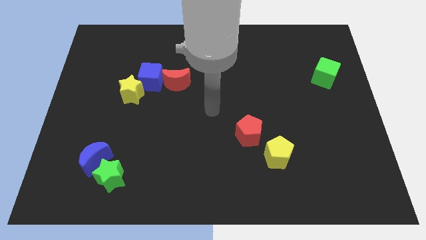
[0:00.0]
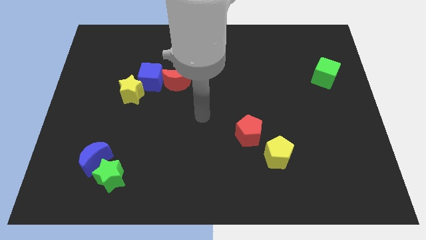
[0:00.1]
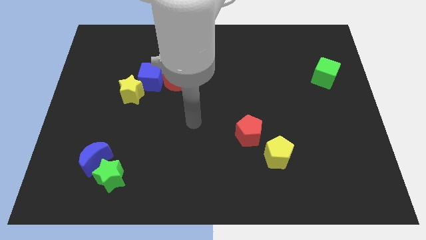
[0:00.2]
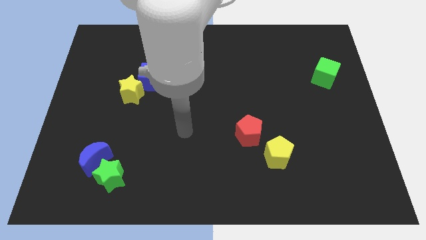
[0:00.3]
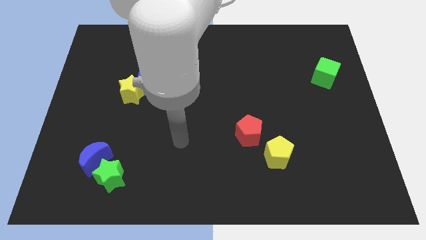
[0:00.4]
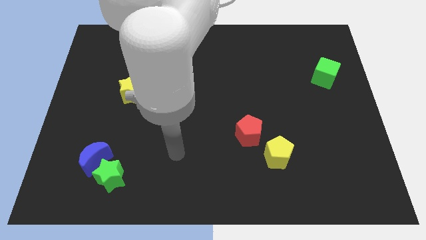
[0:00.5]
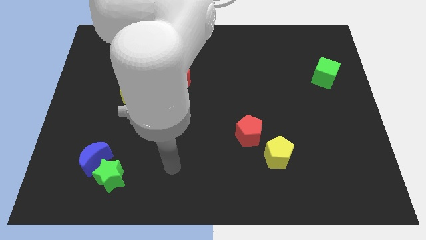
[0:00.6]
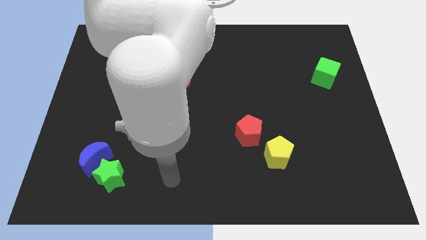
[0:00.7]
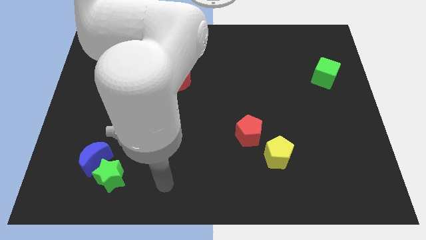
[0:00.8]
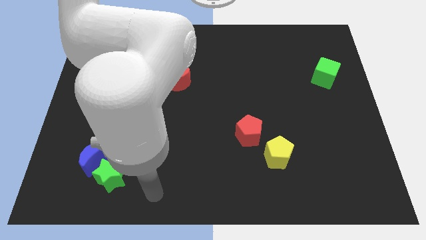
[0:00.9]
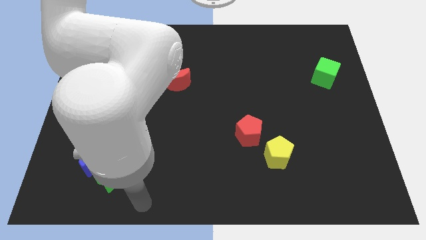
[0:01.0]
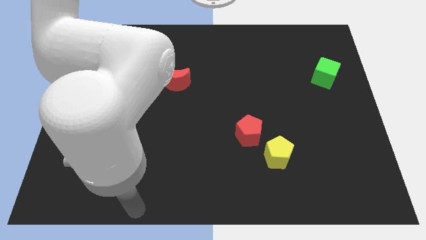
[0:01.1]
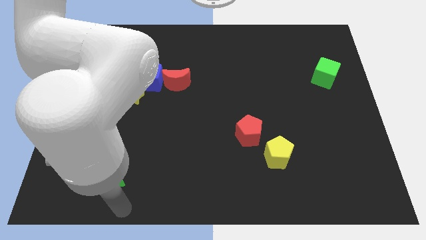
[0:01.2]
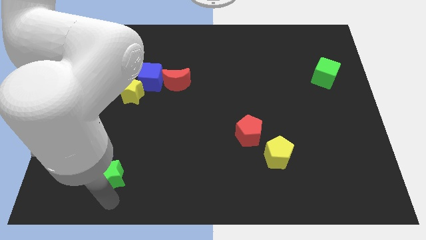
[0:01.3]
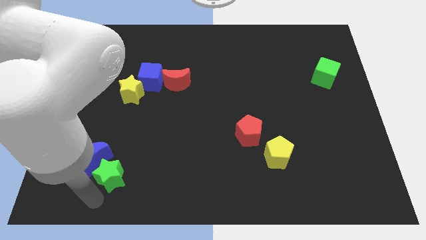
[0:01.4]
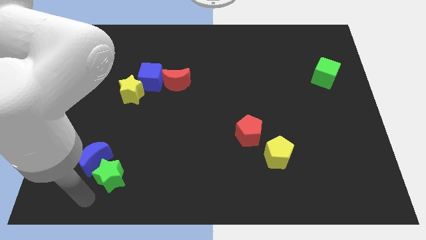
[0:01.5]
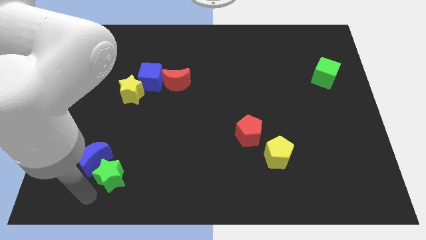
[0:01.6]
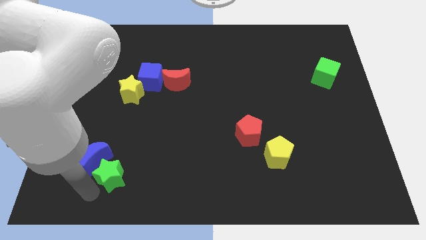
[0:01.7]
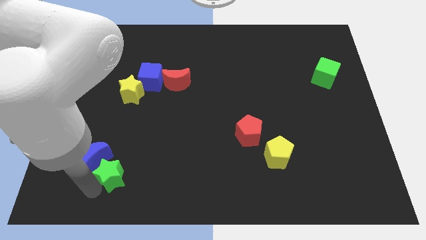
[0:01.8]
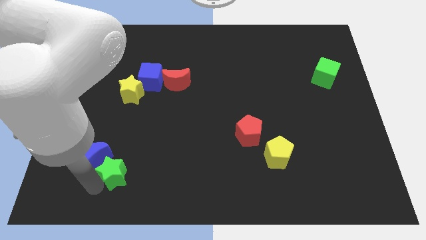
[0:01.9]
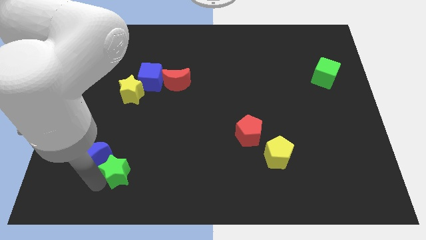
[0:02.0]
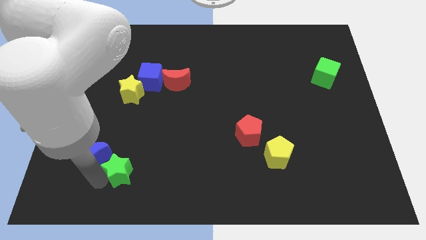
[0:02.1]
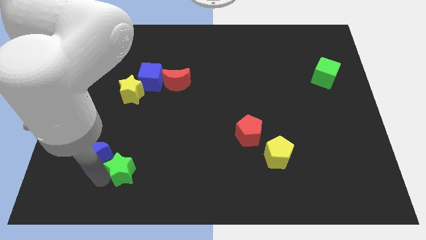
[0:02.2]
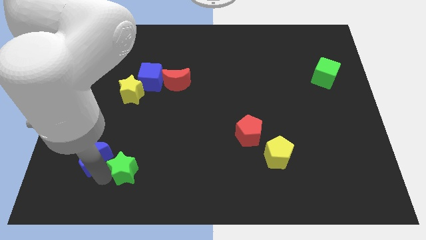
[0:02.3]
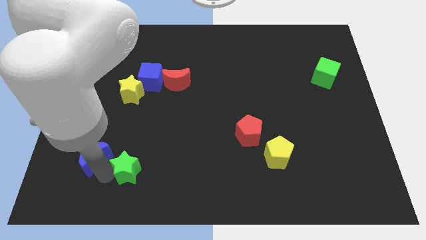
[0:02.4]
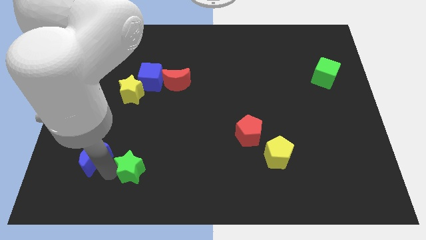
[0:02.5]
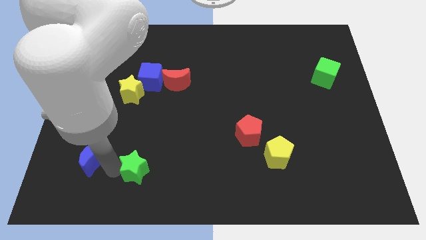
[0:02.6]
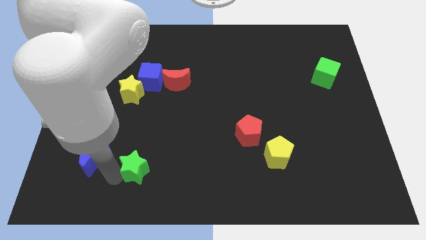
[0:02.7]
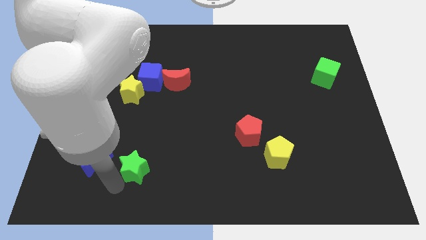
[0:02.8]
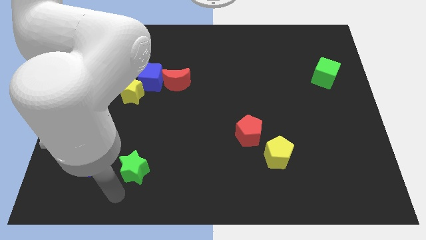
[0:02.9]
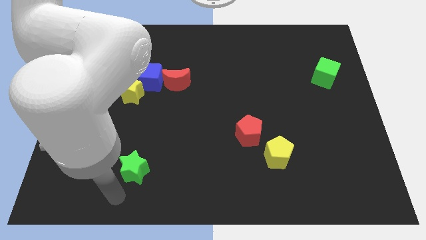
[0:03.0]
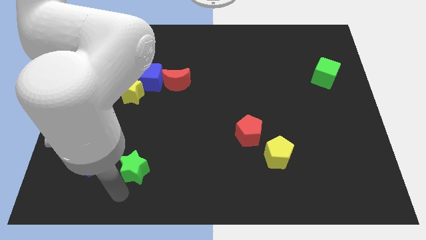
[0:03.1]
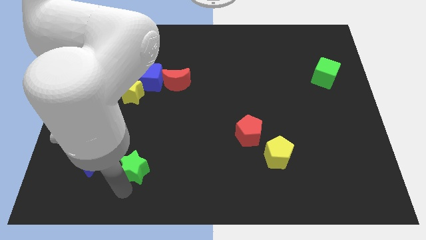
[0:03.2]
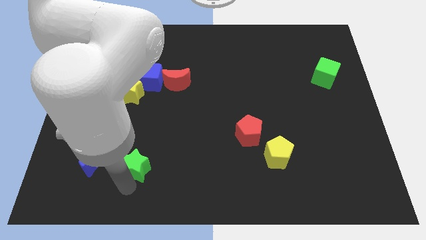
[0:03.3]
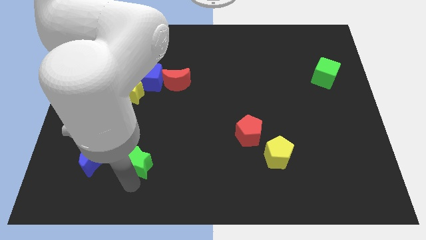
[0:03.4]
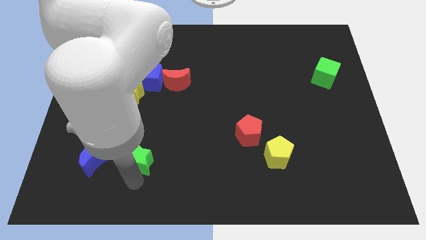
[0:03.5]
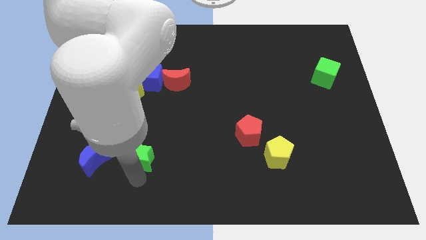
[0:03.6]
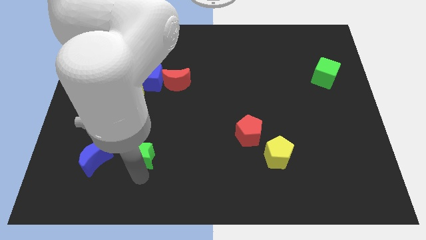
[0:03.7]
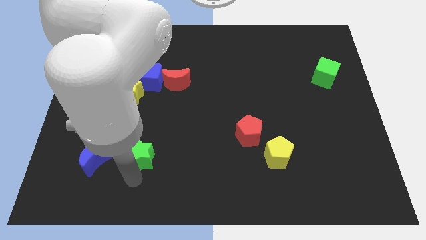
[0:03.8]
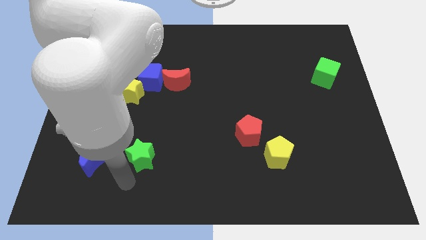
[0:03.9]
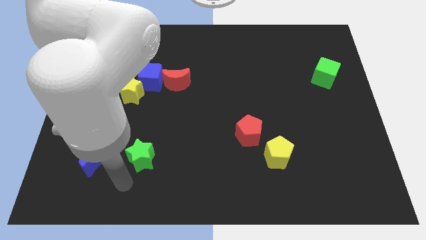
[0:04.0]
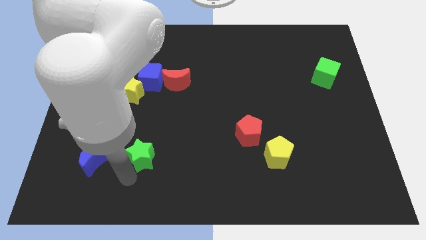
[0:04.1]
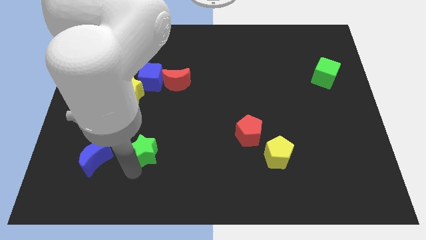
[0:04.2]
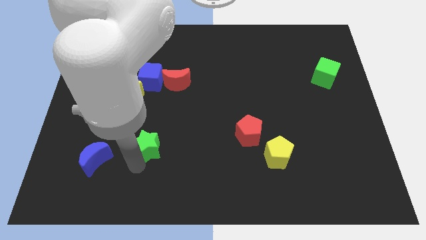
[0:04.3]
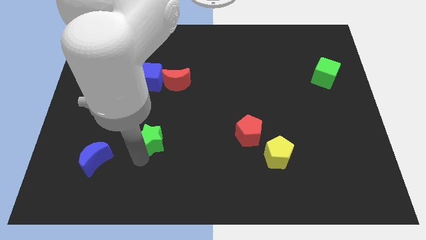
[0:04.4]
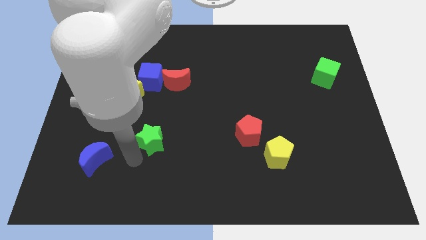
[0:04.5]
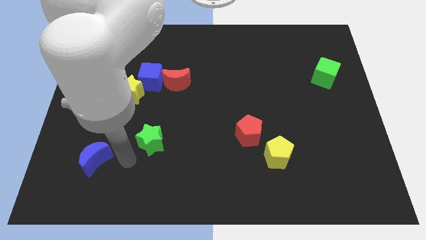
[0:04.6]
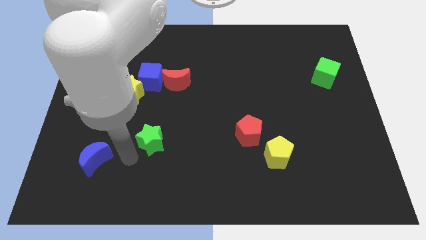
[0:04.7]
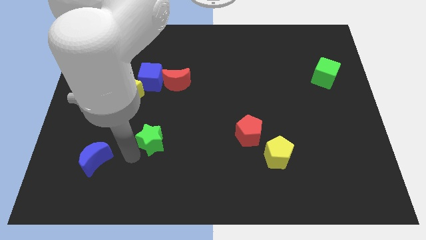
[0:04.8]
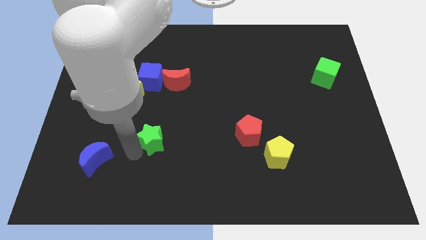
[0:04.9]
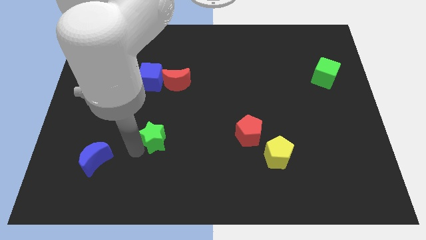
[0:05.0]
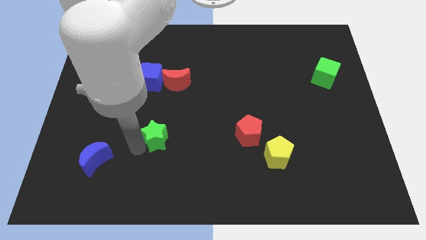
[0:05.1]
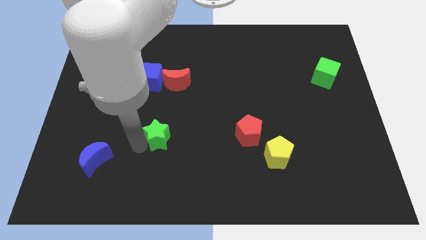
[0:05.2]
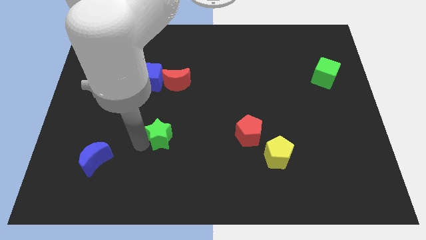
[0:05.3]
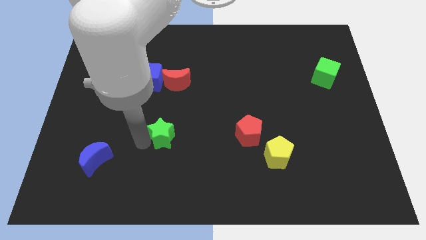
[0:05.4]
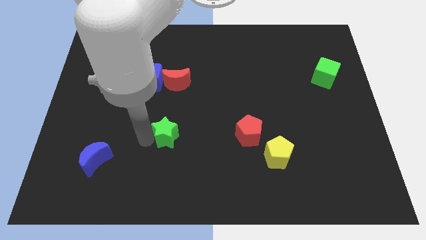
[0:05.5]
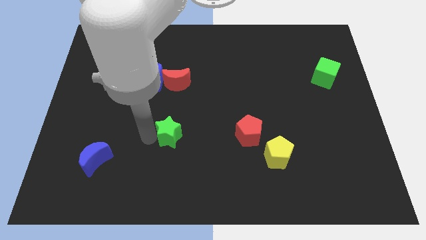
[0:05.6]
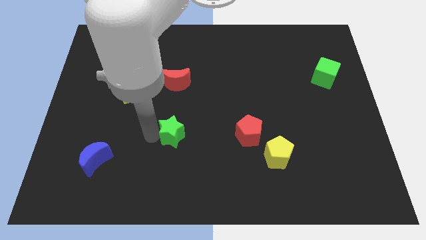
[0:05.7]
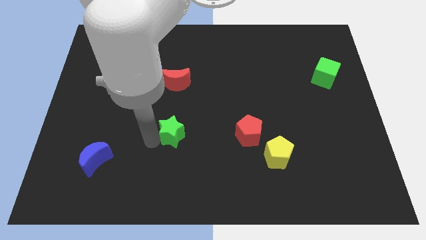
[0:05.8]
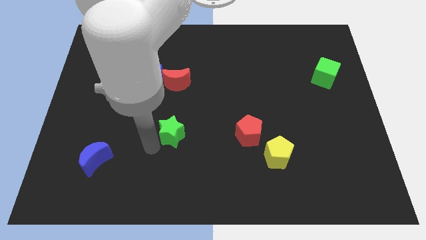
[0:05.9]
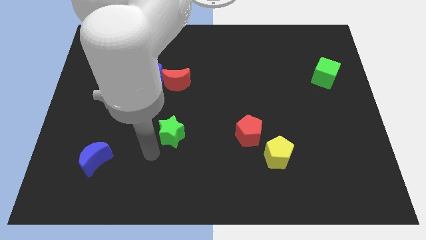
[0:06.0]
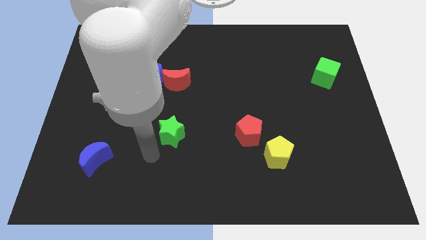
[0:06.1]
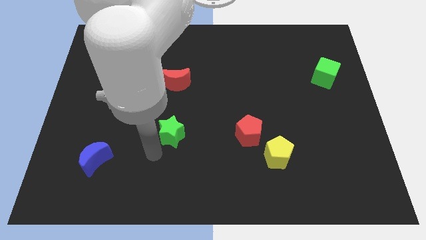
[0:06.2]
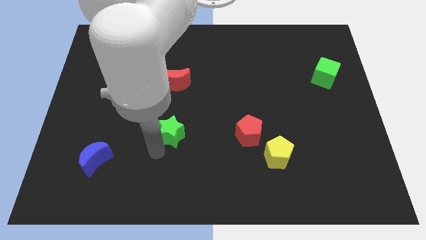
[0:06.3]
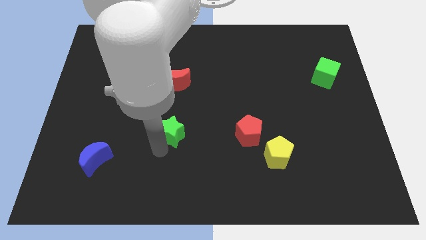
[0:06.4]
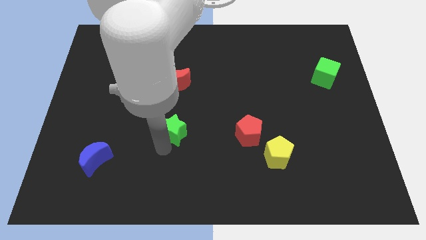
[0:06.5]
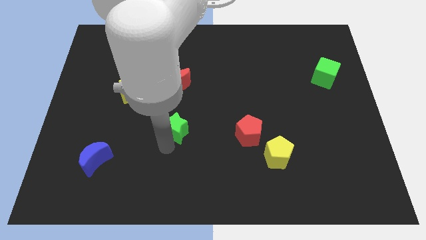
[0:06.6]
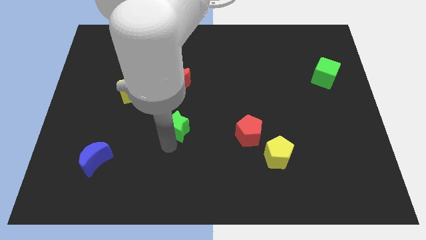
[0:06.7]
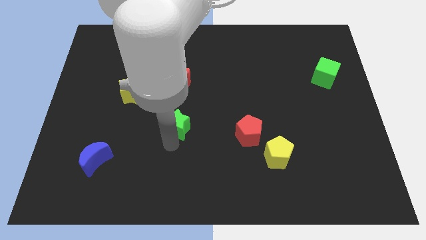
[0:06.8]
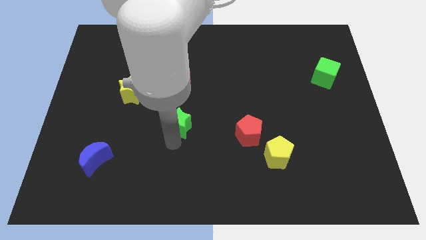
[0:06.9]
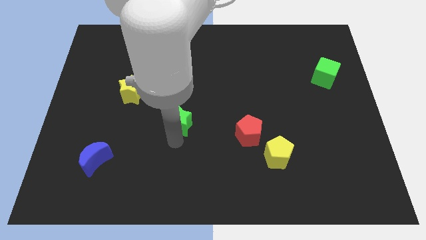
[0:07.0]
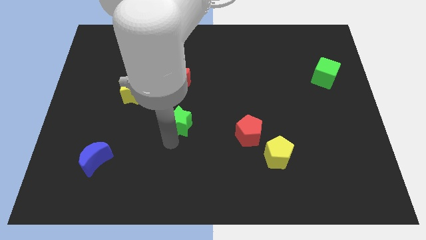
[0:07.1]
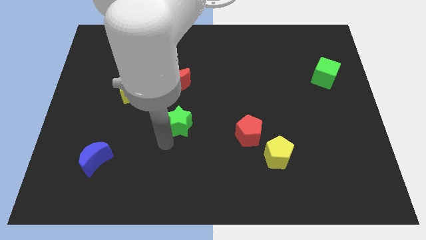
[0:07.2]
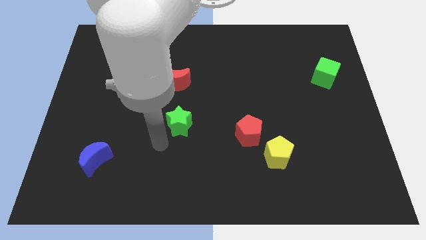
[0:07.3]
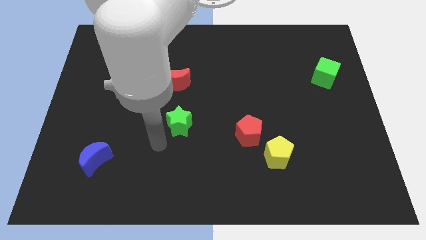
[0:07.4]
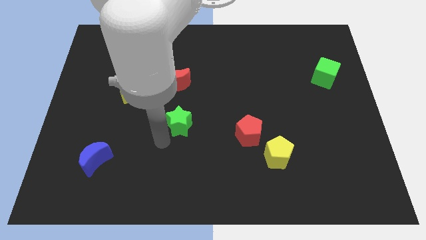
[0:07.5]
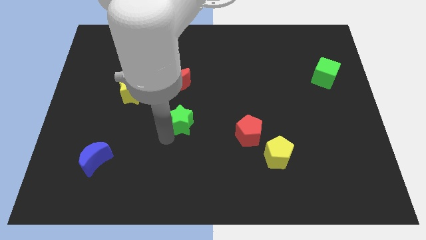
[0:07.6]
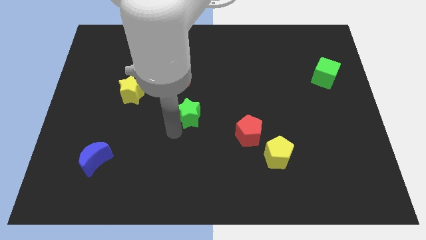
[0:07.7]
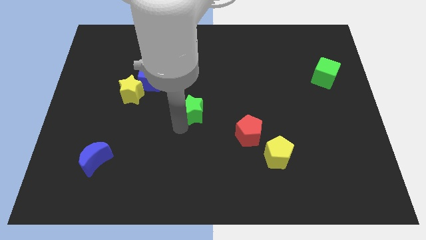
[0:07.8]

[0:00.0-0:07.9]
move the green star to the bottom right of the red moon
